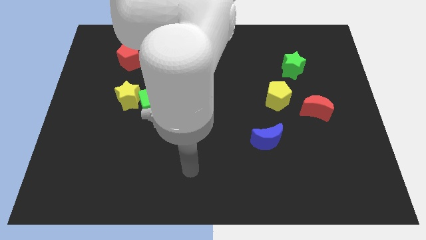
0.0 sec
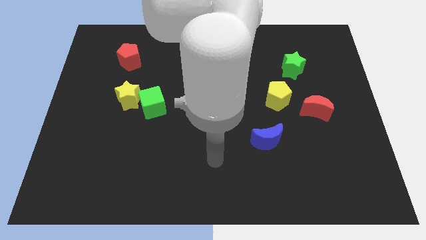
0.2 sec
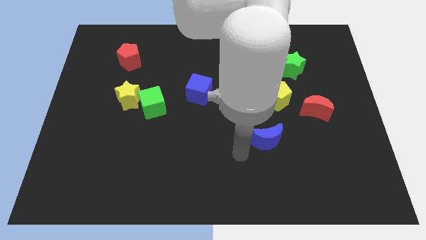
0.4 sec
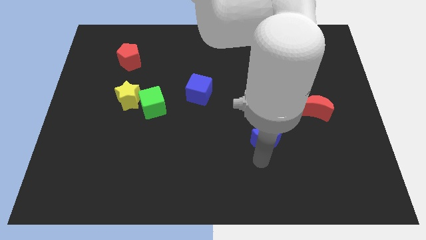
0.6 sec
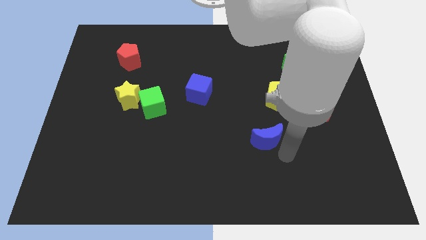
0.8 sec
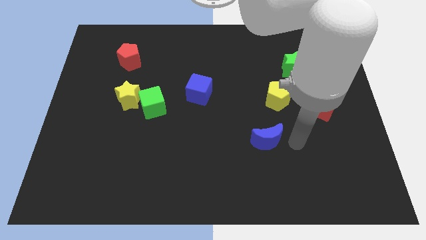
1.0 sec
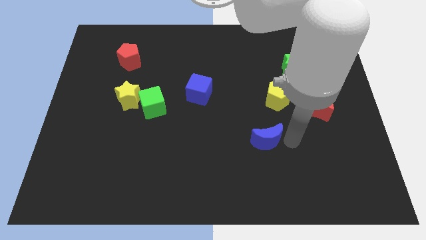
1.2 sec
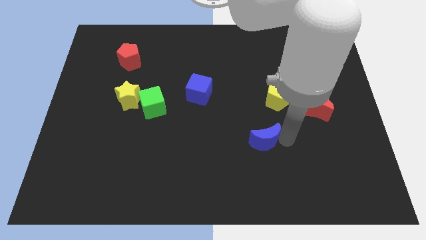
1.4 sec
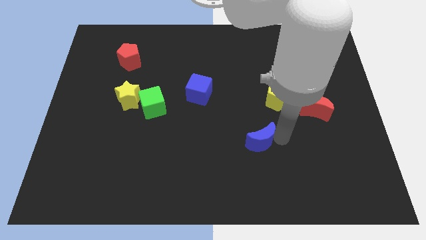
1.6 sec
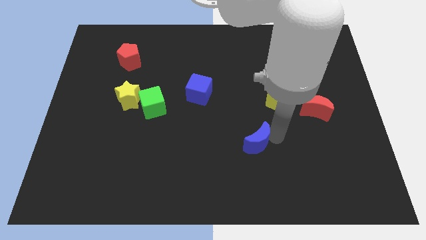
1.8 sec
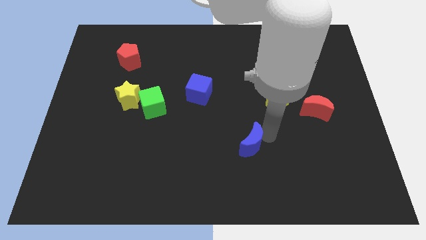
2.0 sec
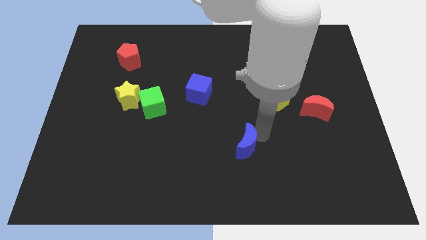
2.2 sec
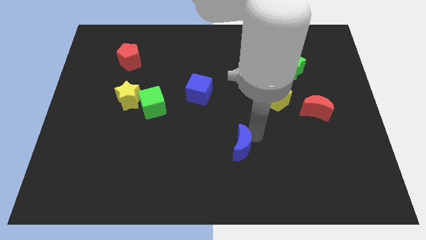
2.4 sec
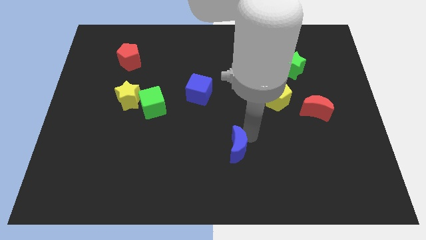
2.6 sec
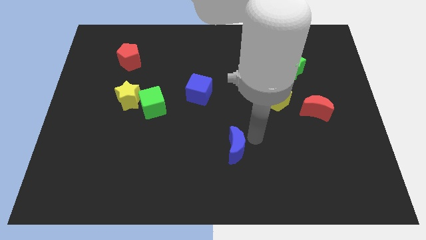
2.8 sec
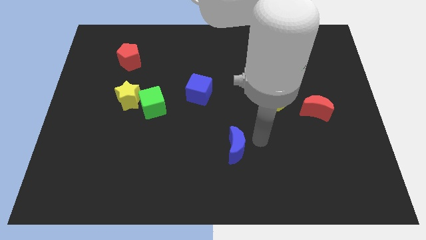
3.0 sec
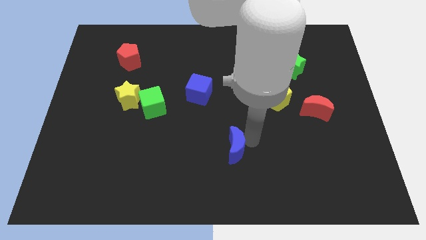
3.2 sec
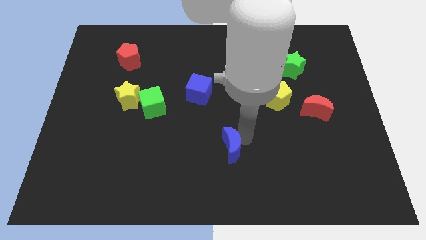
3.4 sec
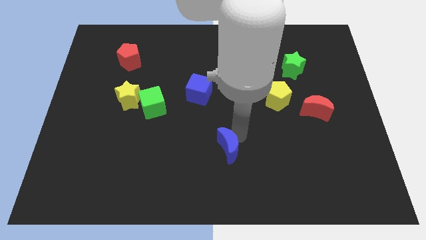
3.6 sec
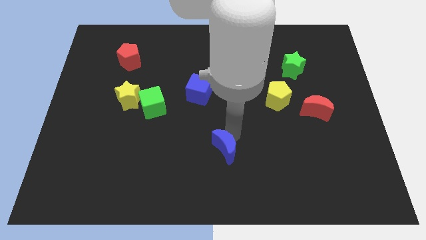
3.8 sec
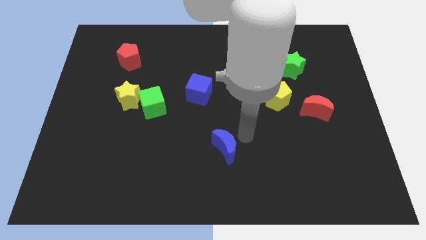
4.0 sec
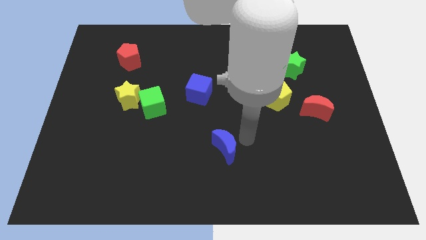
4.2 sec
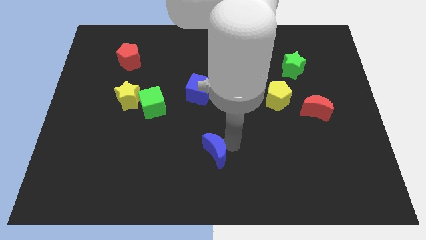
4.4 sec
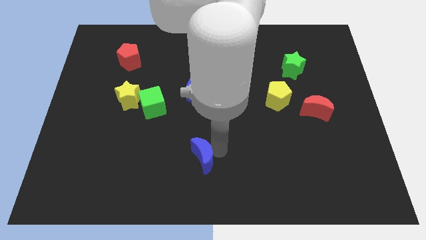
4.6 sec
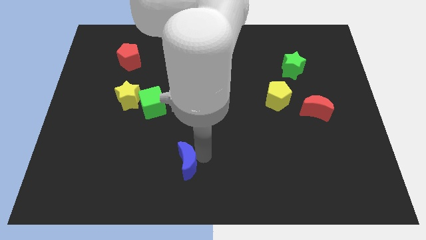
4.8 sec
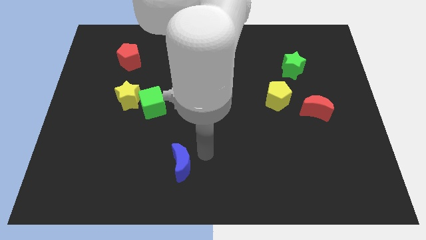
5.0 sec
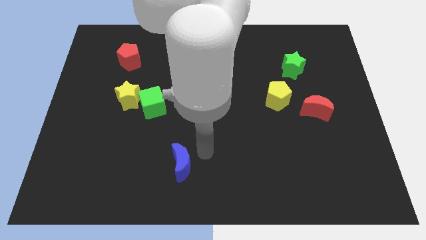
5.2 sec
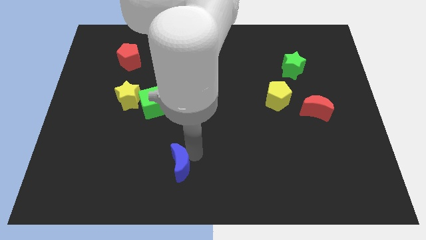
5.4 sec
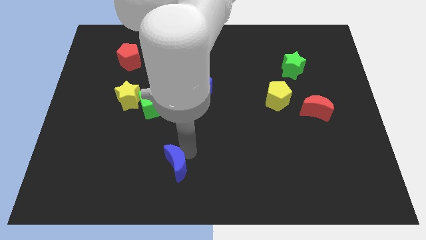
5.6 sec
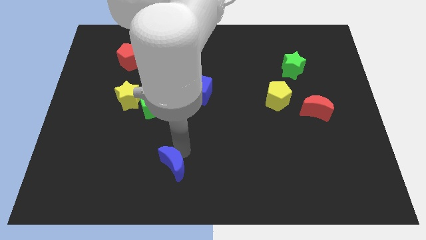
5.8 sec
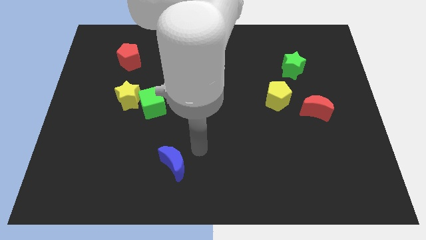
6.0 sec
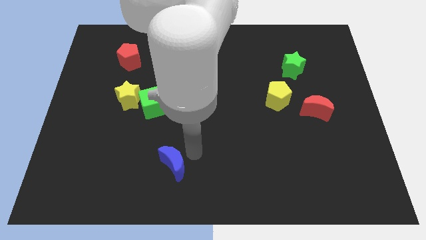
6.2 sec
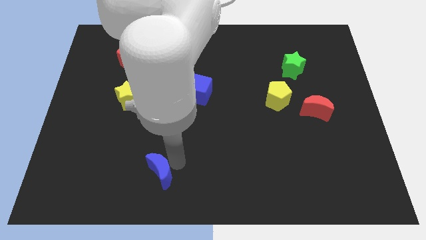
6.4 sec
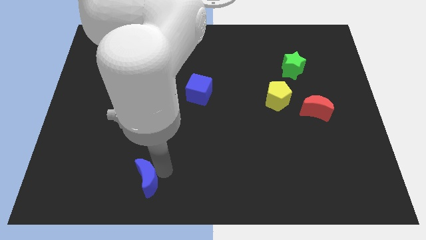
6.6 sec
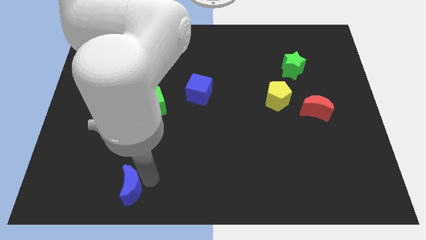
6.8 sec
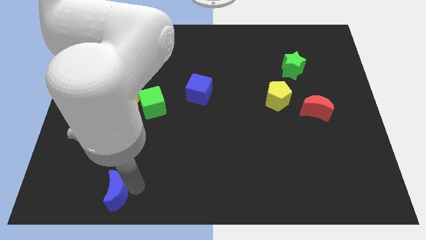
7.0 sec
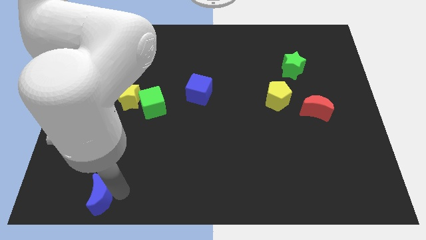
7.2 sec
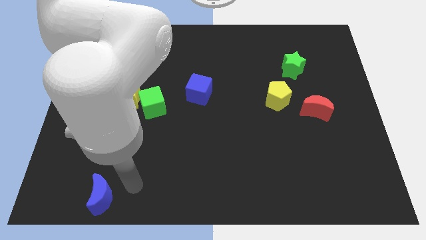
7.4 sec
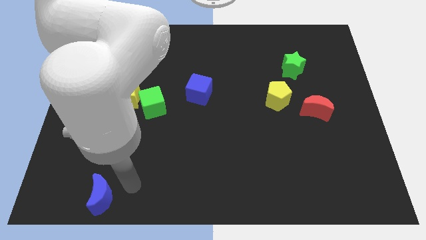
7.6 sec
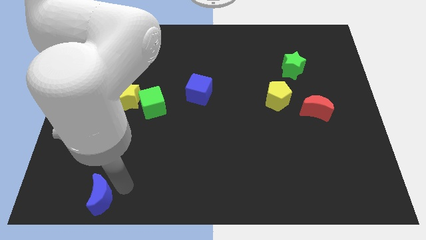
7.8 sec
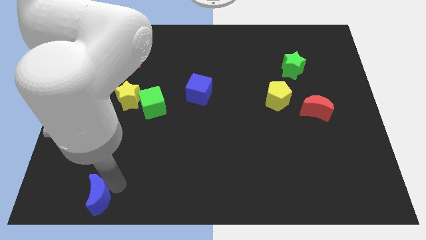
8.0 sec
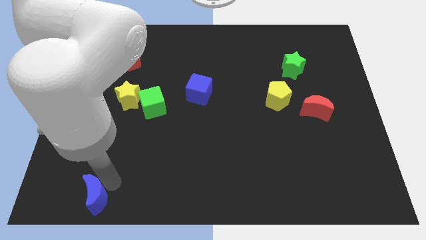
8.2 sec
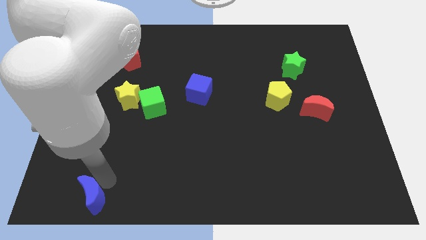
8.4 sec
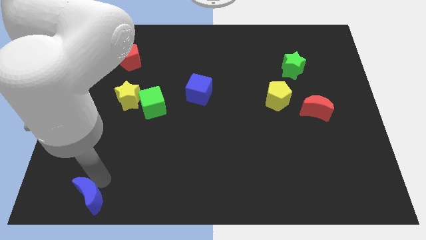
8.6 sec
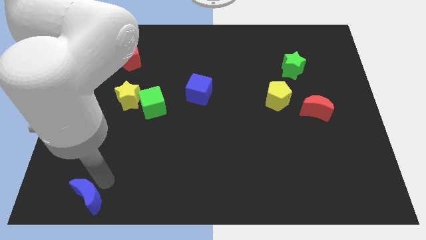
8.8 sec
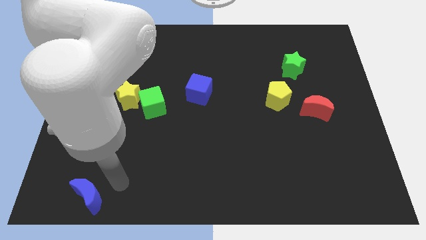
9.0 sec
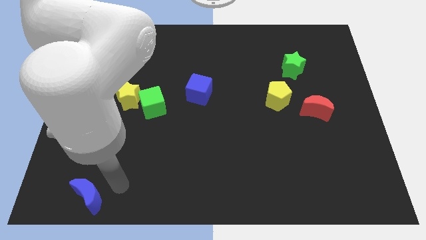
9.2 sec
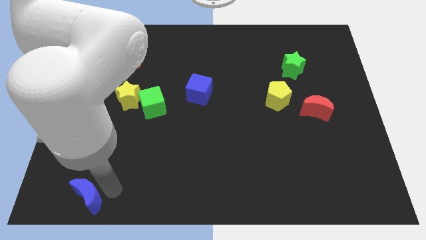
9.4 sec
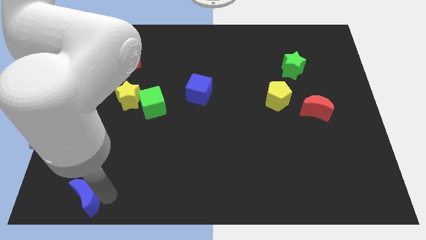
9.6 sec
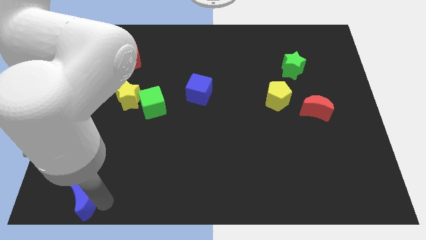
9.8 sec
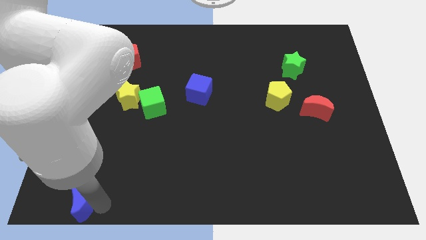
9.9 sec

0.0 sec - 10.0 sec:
move the blue moon to the lower left corner

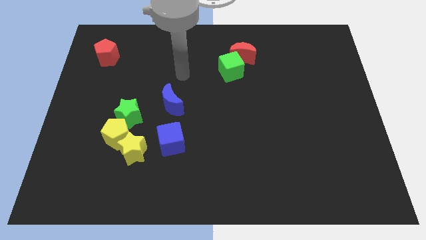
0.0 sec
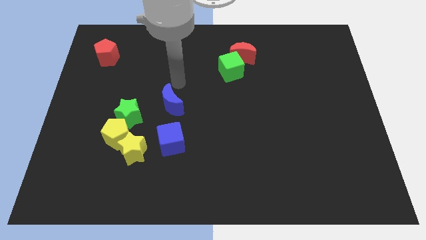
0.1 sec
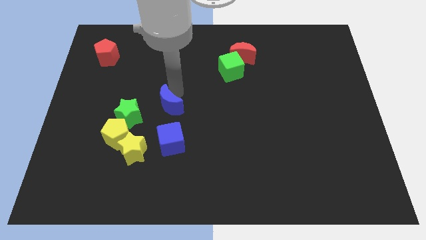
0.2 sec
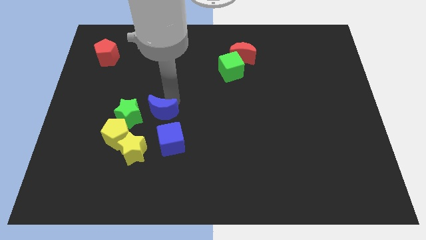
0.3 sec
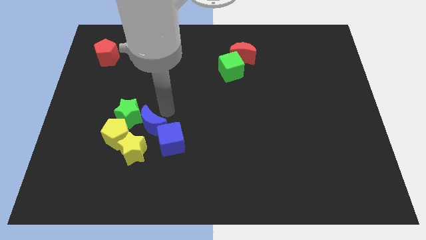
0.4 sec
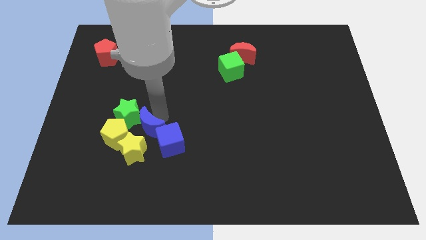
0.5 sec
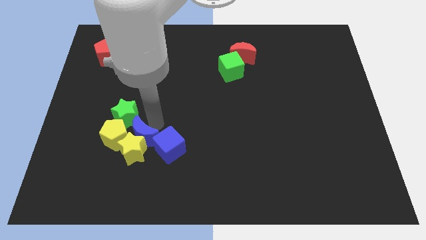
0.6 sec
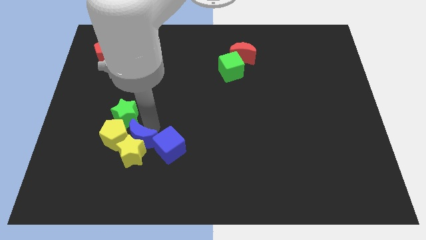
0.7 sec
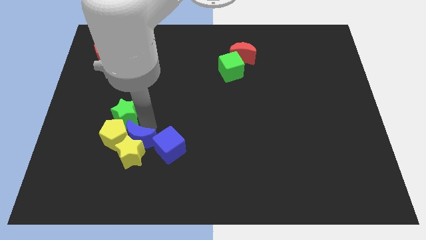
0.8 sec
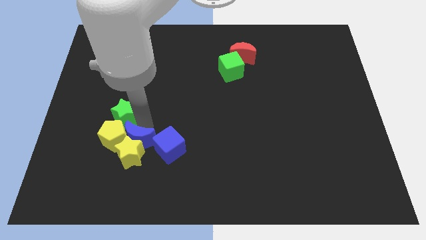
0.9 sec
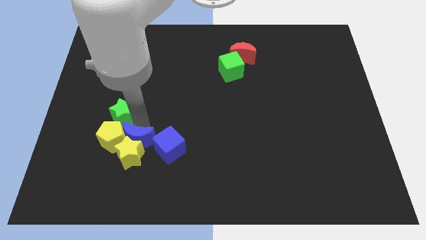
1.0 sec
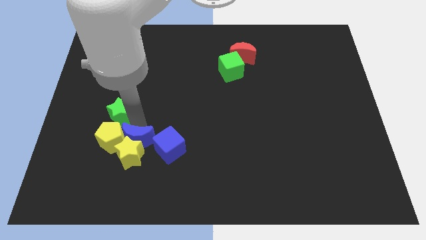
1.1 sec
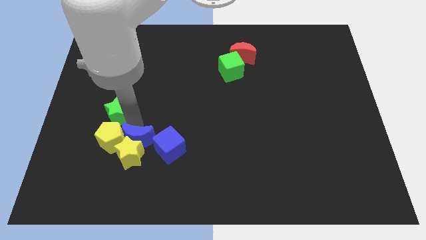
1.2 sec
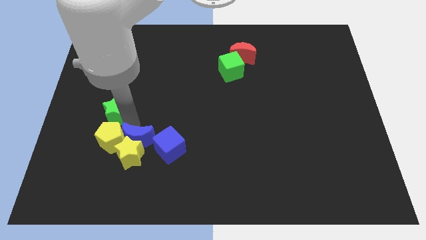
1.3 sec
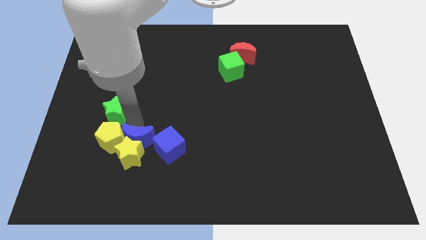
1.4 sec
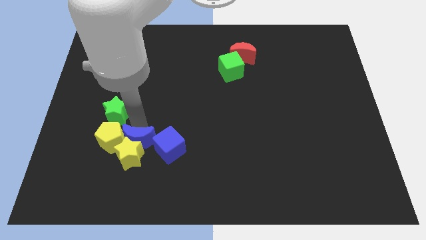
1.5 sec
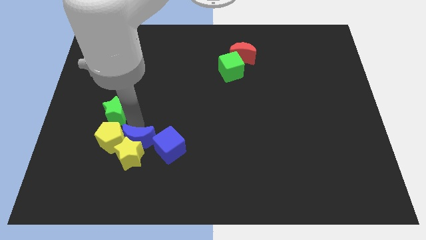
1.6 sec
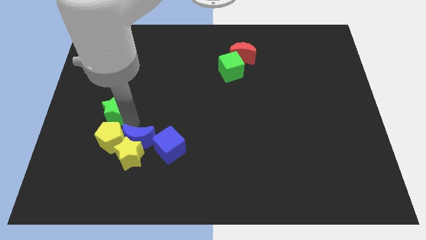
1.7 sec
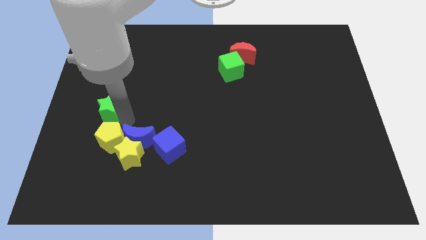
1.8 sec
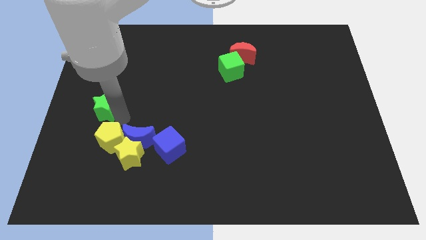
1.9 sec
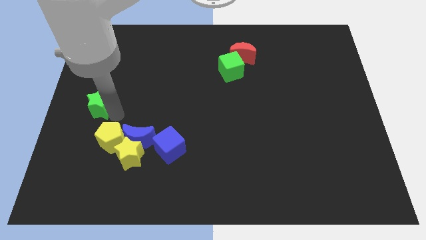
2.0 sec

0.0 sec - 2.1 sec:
move the green star to the left side

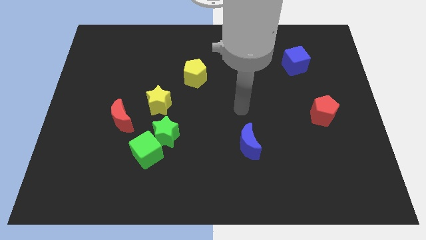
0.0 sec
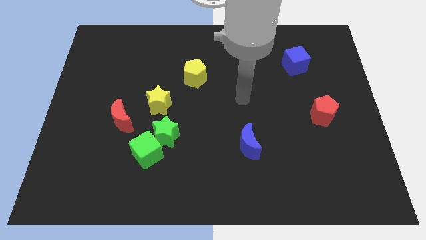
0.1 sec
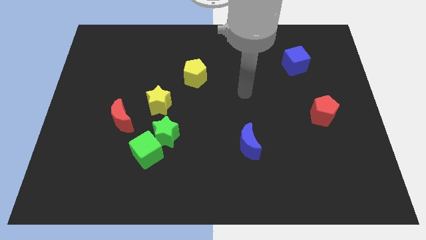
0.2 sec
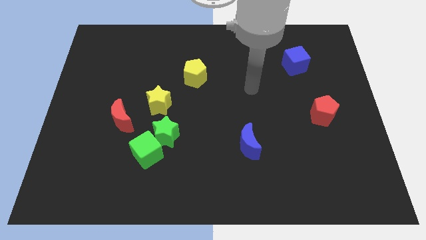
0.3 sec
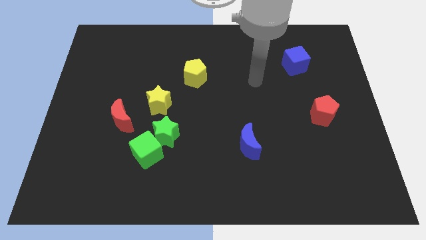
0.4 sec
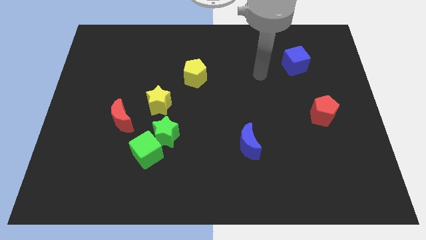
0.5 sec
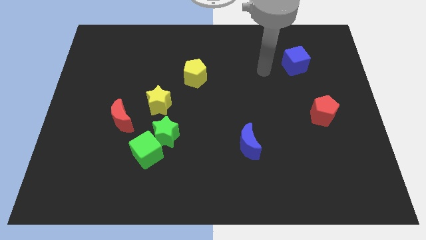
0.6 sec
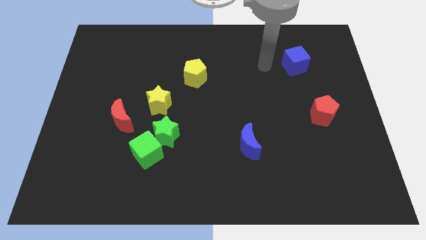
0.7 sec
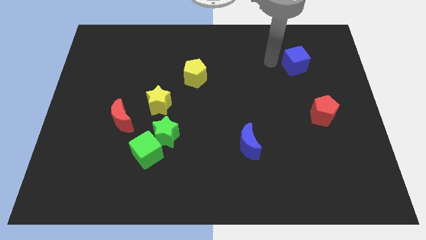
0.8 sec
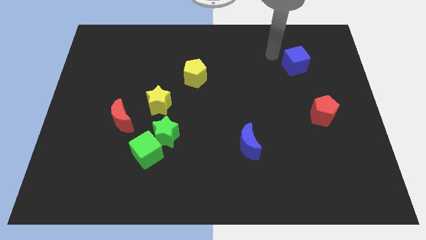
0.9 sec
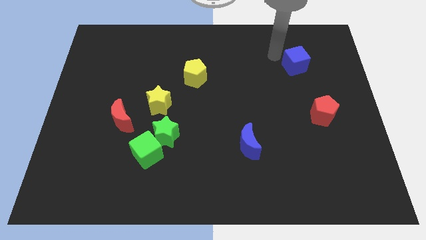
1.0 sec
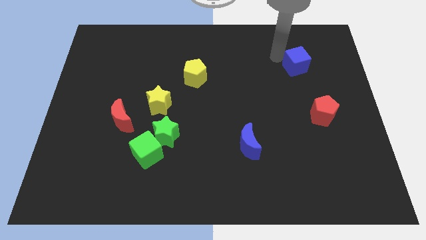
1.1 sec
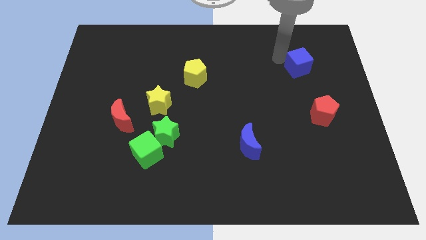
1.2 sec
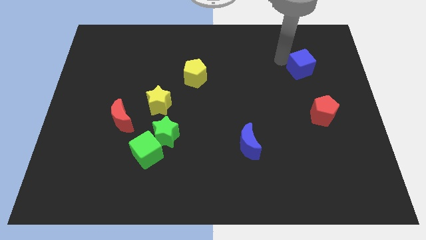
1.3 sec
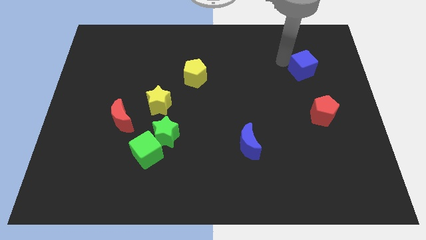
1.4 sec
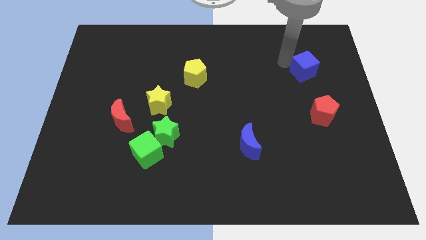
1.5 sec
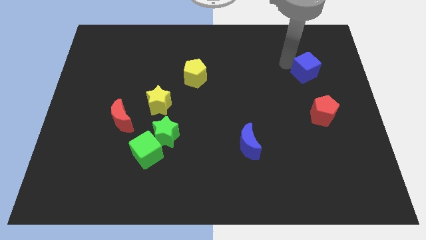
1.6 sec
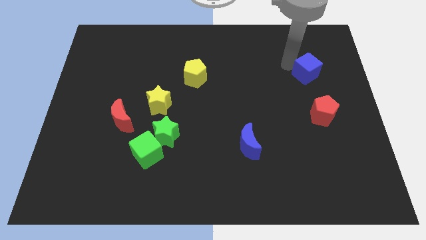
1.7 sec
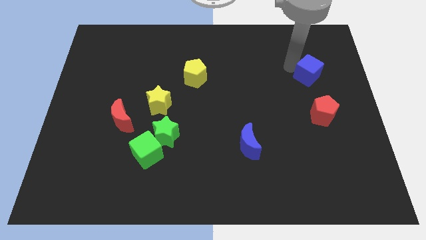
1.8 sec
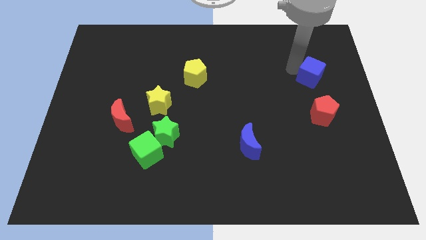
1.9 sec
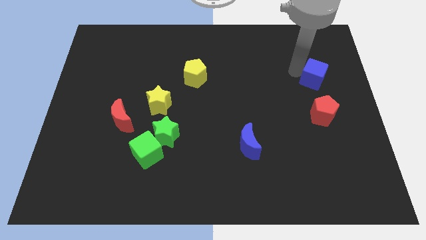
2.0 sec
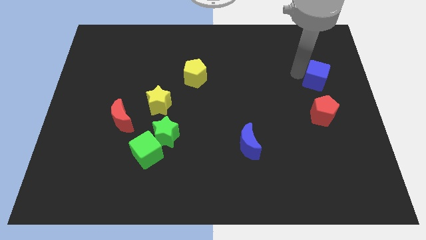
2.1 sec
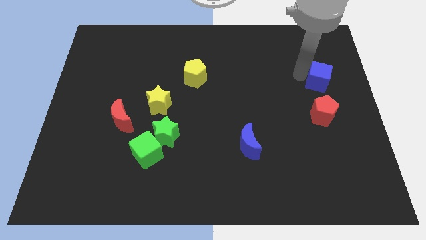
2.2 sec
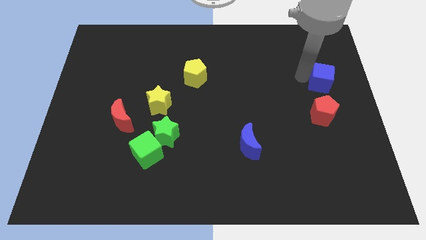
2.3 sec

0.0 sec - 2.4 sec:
slide the blue cube to the center right
